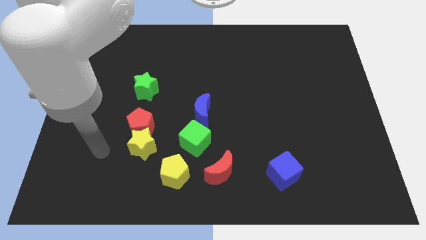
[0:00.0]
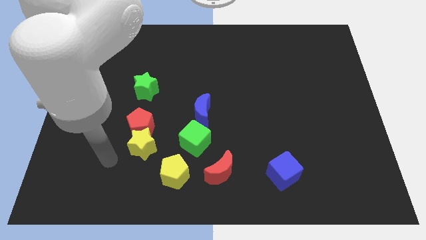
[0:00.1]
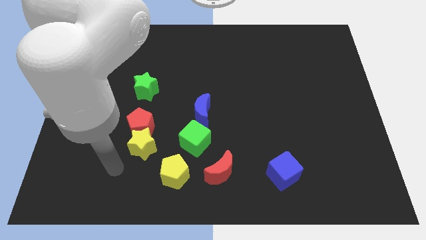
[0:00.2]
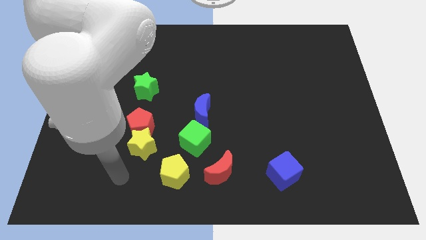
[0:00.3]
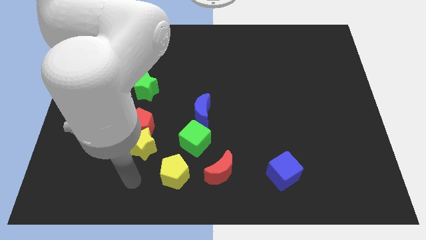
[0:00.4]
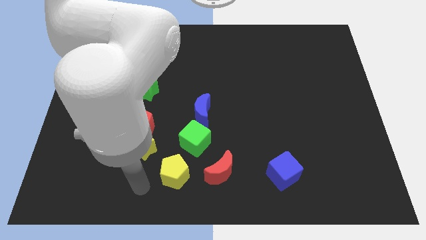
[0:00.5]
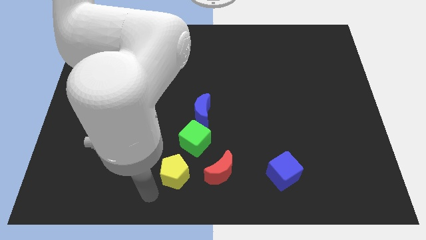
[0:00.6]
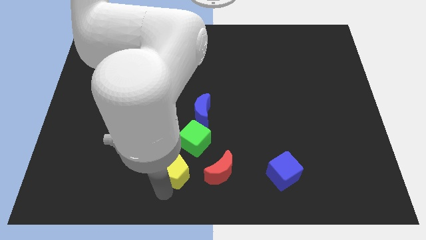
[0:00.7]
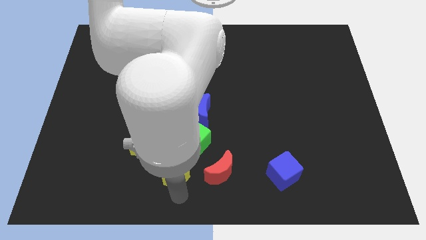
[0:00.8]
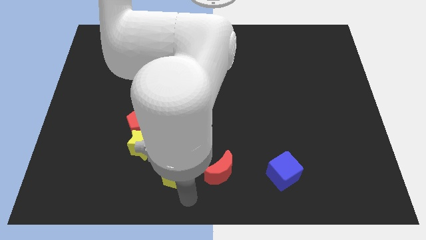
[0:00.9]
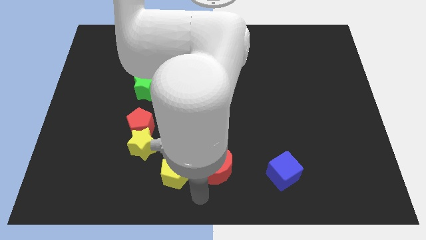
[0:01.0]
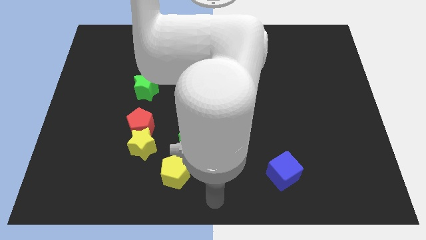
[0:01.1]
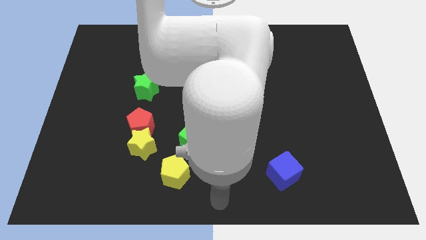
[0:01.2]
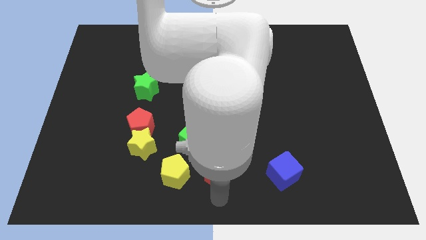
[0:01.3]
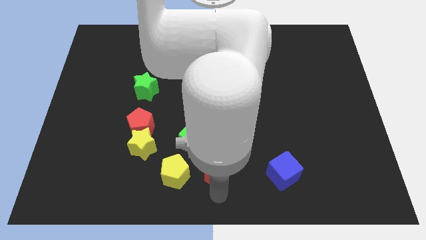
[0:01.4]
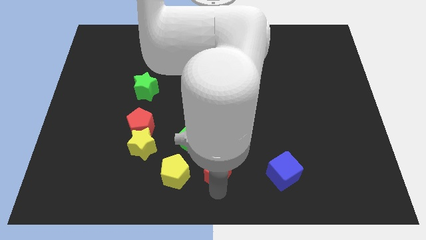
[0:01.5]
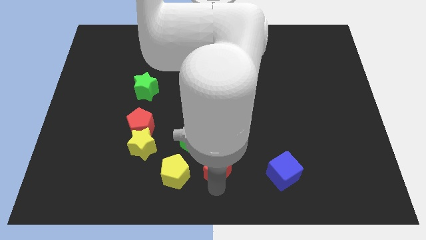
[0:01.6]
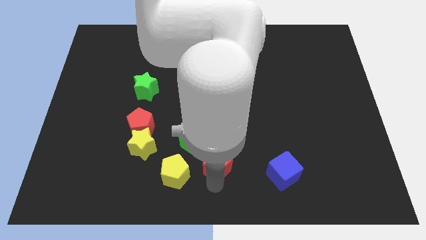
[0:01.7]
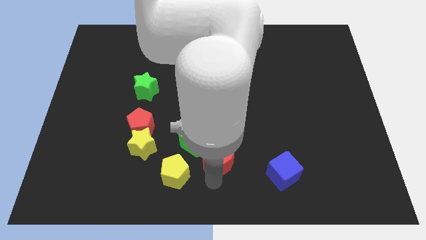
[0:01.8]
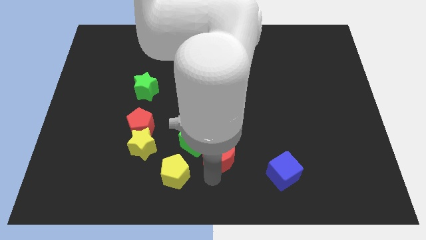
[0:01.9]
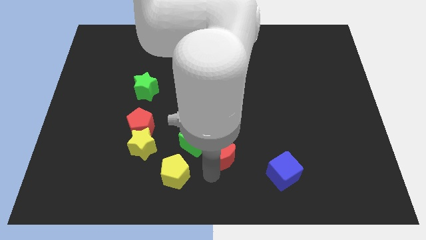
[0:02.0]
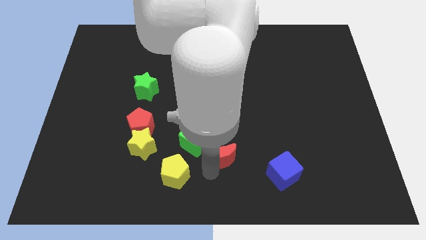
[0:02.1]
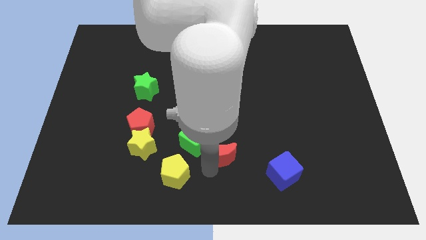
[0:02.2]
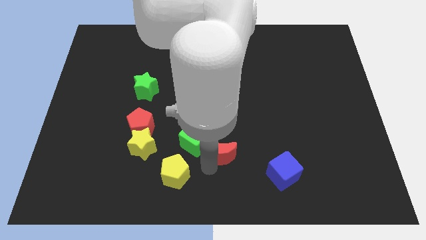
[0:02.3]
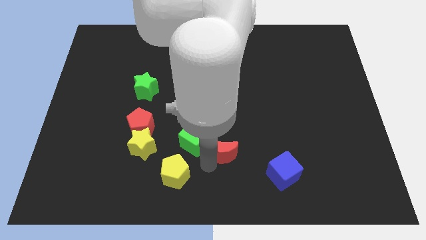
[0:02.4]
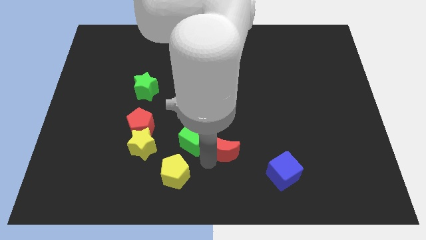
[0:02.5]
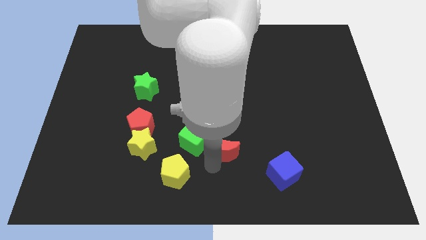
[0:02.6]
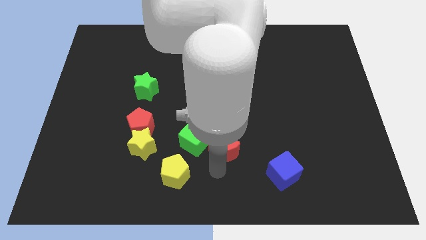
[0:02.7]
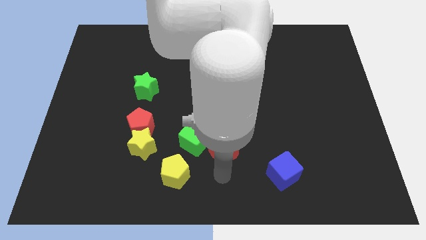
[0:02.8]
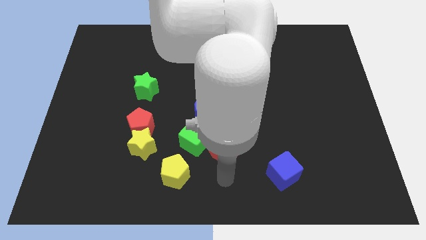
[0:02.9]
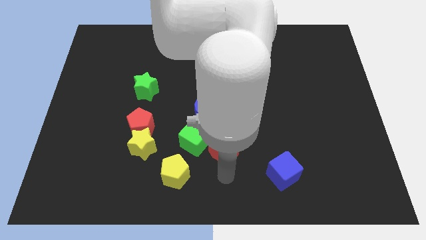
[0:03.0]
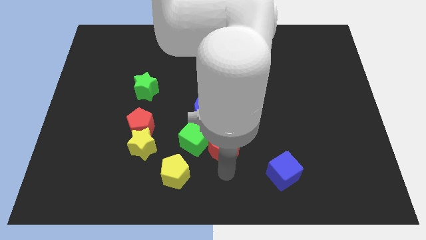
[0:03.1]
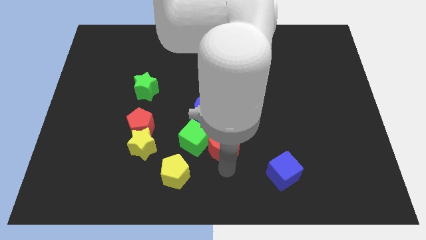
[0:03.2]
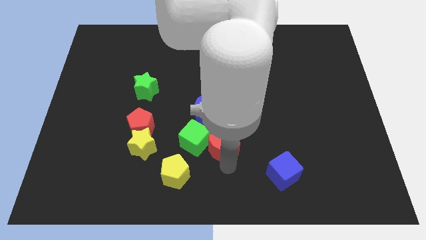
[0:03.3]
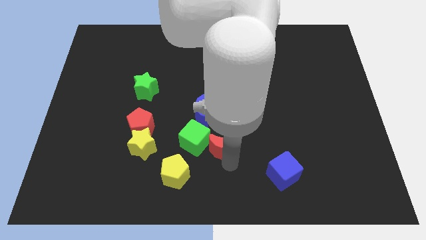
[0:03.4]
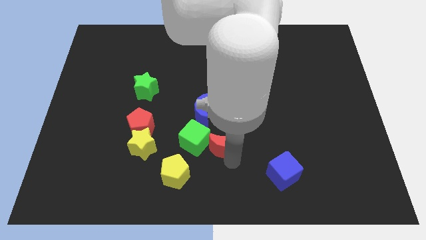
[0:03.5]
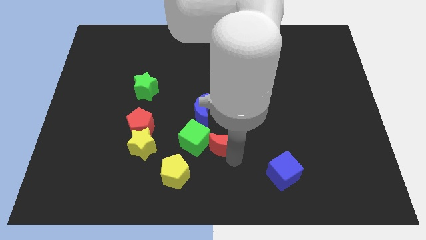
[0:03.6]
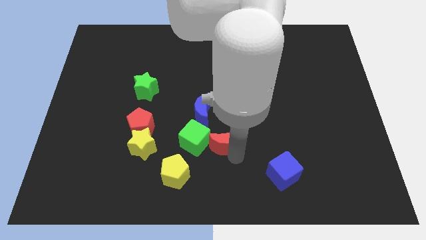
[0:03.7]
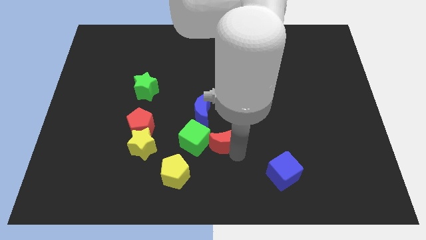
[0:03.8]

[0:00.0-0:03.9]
push the red moon upwards somewhat

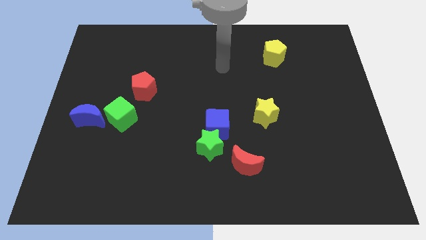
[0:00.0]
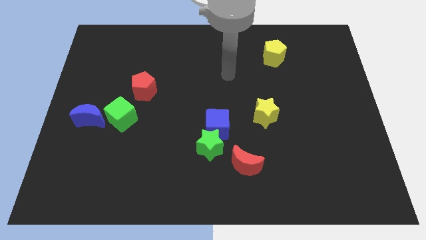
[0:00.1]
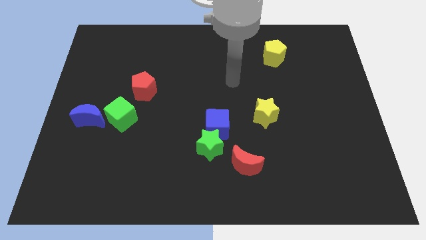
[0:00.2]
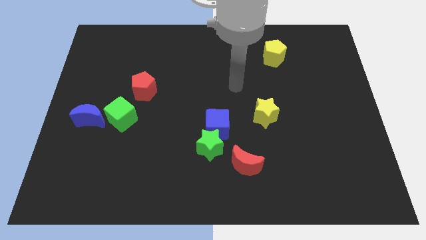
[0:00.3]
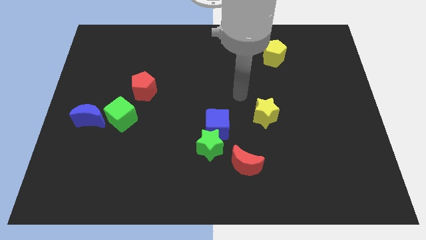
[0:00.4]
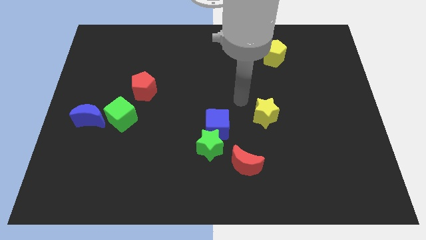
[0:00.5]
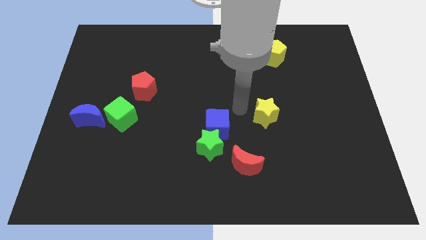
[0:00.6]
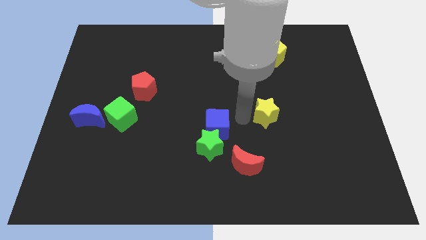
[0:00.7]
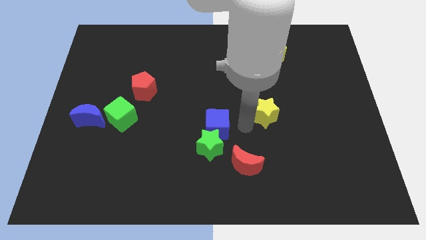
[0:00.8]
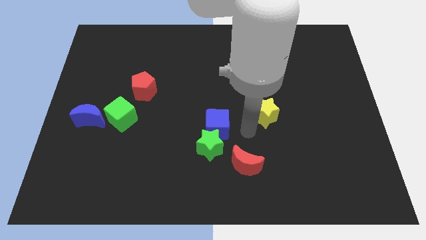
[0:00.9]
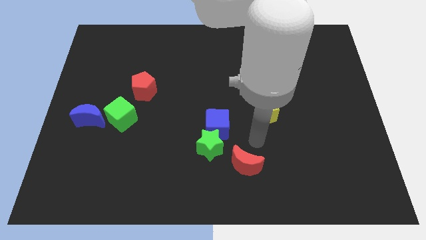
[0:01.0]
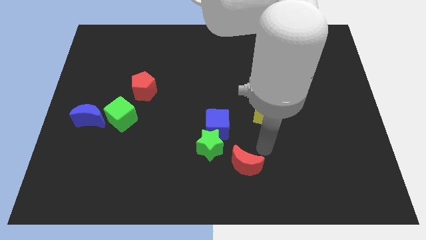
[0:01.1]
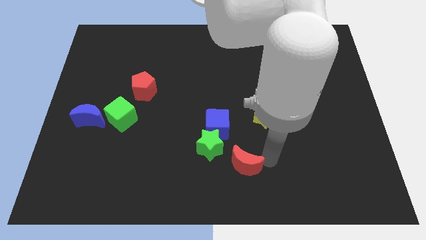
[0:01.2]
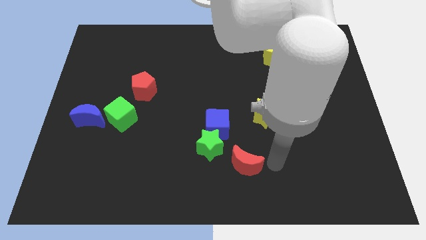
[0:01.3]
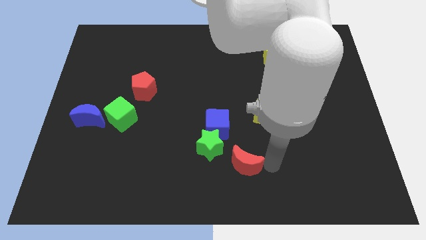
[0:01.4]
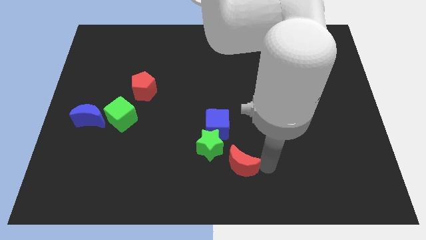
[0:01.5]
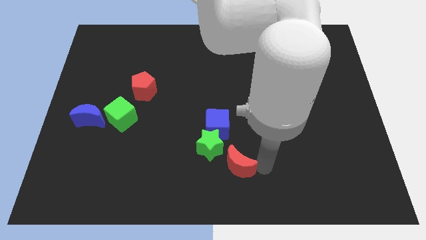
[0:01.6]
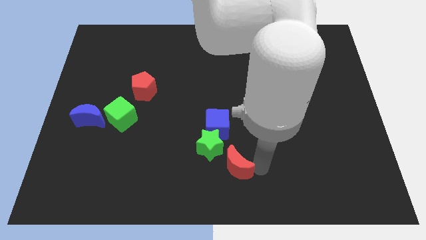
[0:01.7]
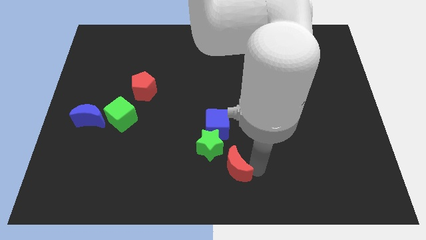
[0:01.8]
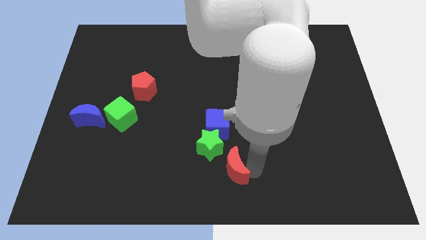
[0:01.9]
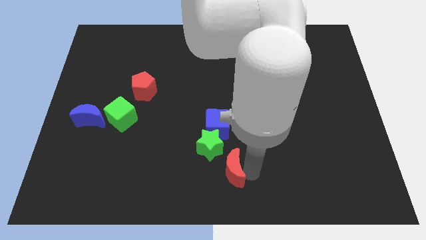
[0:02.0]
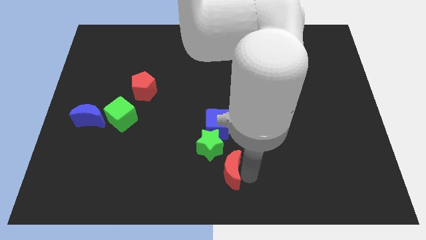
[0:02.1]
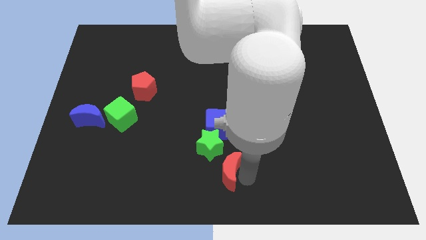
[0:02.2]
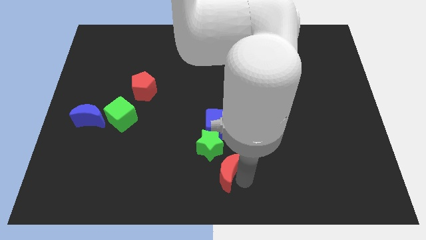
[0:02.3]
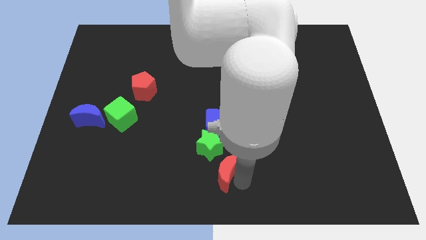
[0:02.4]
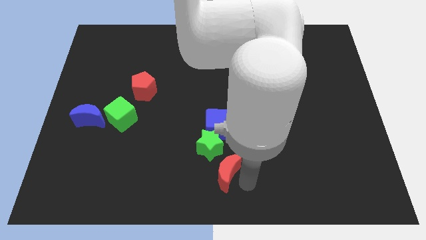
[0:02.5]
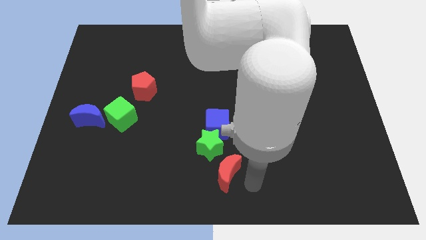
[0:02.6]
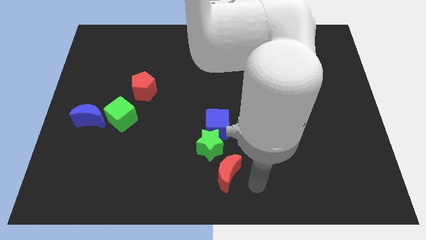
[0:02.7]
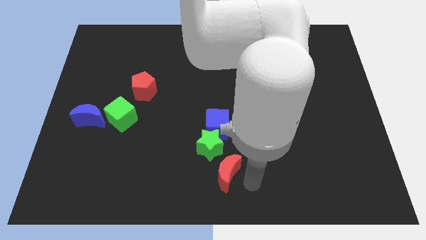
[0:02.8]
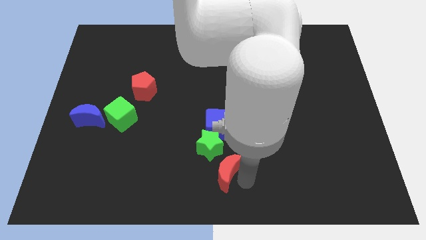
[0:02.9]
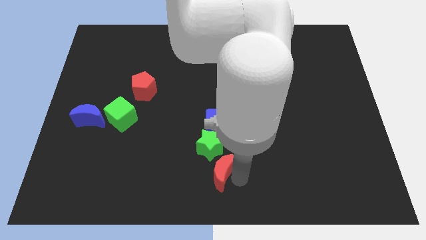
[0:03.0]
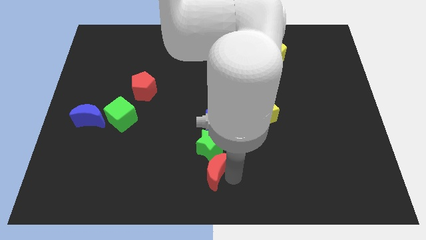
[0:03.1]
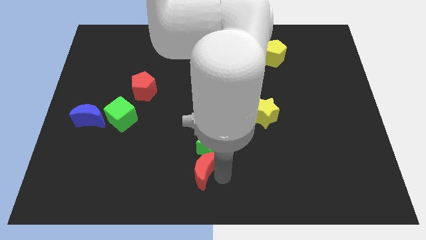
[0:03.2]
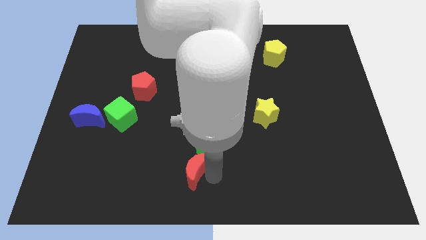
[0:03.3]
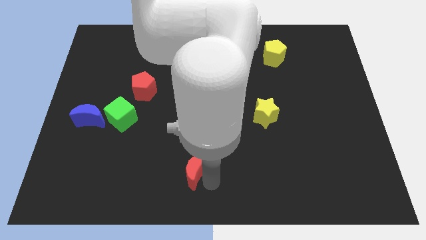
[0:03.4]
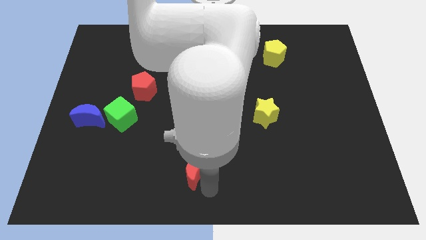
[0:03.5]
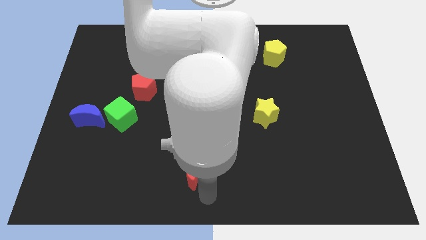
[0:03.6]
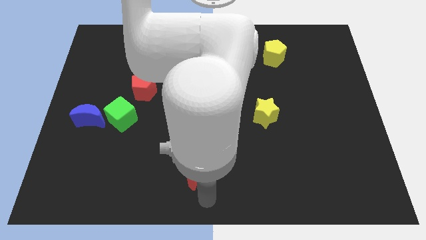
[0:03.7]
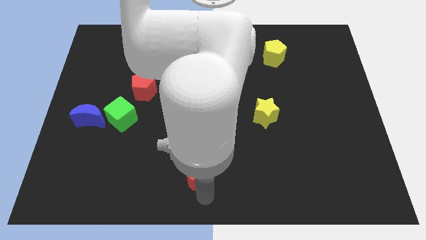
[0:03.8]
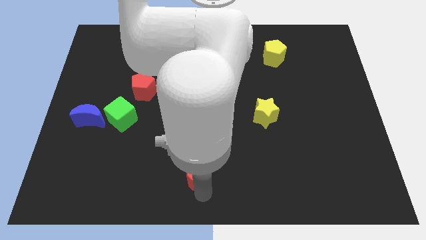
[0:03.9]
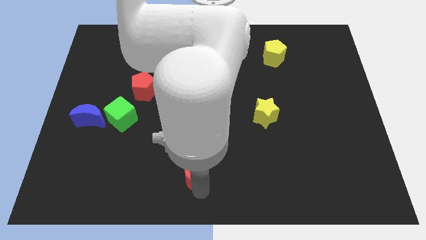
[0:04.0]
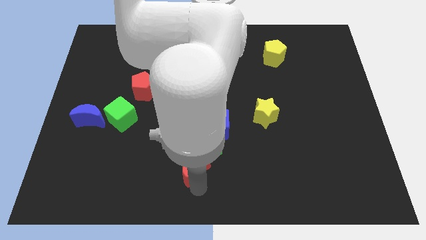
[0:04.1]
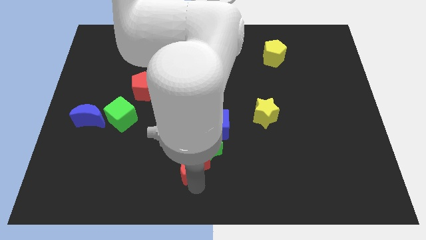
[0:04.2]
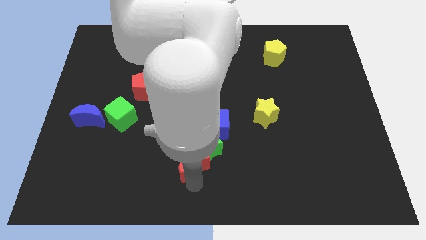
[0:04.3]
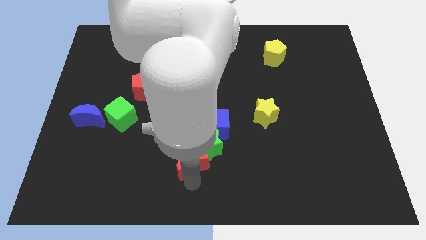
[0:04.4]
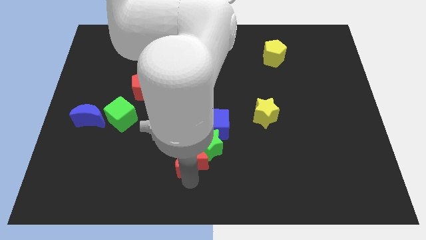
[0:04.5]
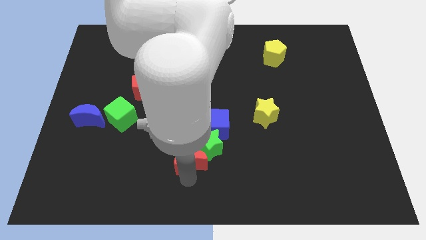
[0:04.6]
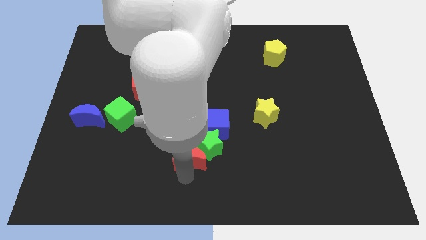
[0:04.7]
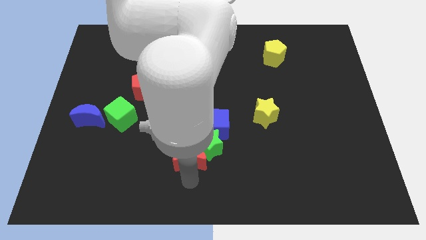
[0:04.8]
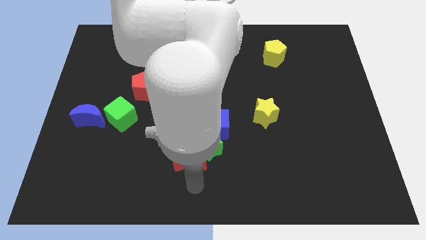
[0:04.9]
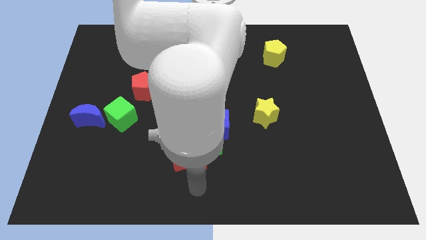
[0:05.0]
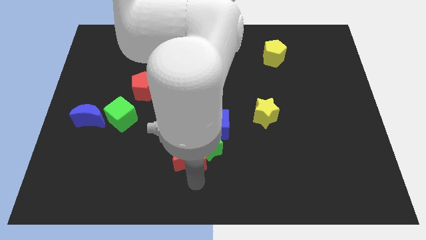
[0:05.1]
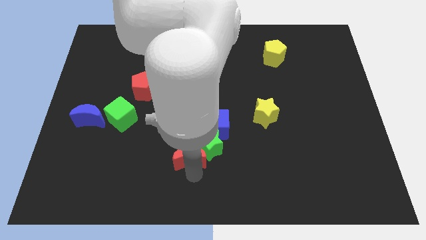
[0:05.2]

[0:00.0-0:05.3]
slide the red moon up and to the left a little
